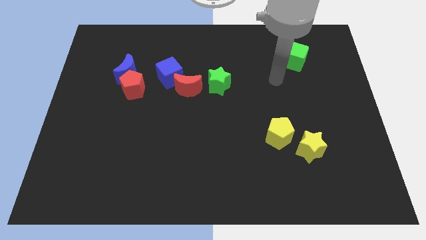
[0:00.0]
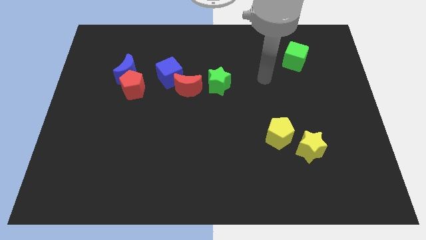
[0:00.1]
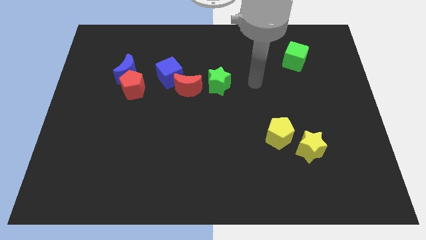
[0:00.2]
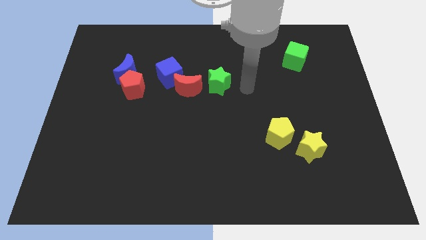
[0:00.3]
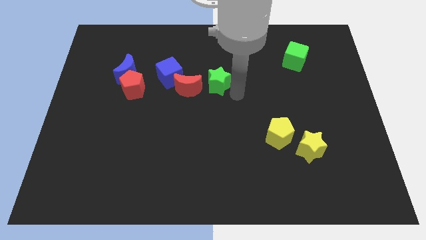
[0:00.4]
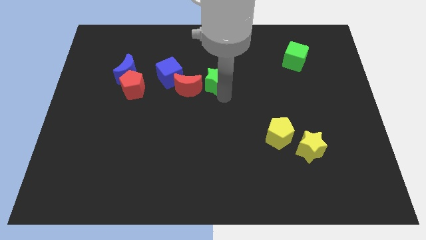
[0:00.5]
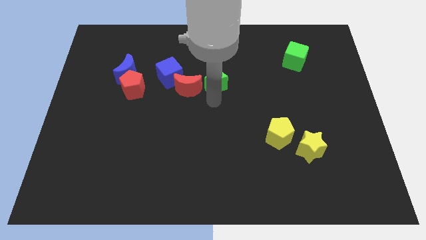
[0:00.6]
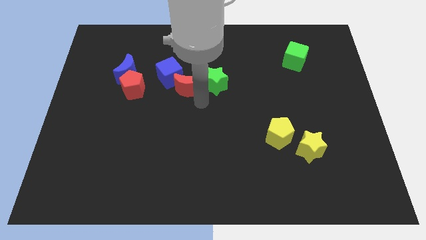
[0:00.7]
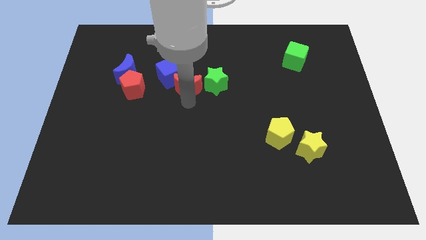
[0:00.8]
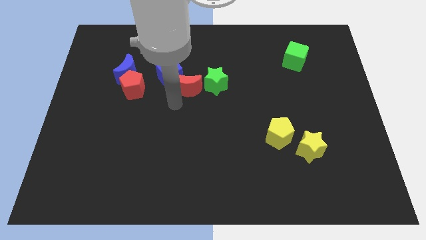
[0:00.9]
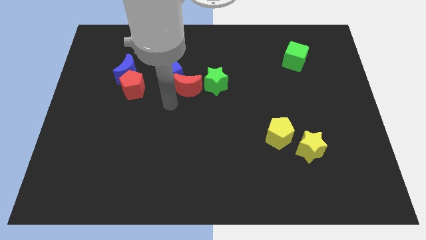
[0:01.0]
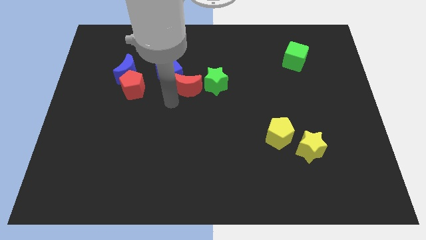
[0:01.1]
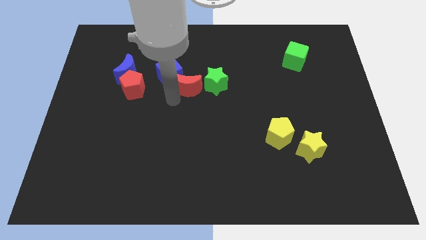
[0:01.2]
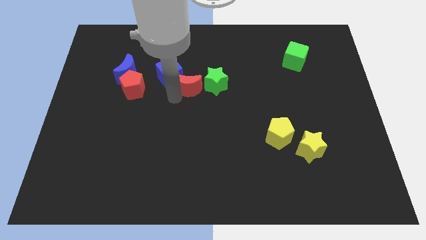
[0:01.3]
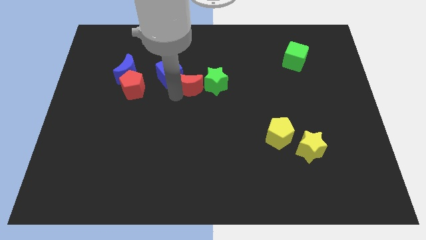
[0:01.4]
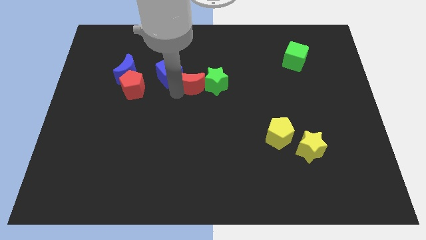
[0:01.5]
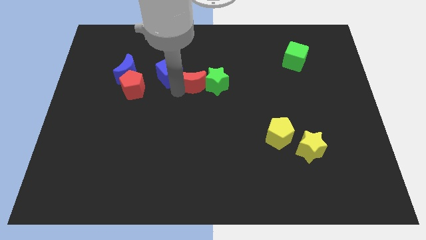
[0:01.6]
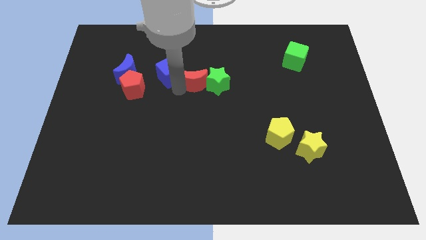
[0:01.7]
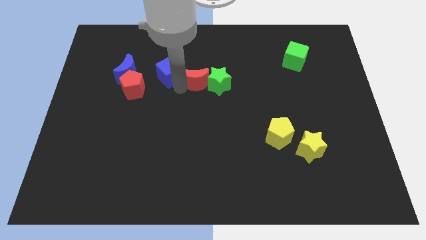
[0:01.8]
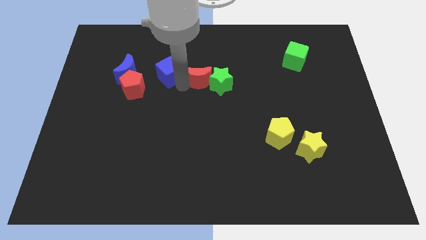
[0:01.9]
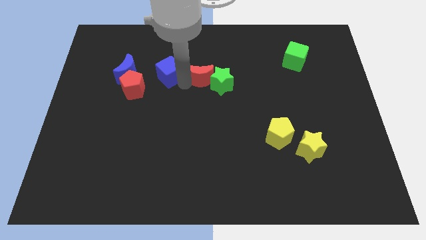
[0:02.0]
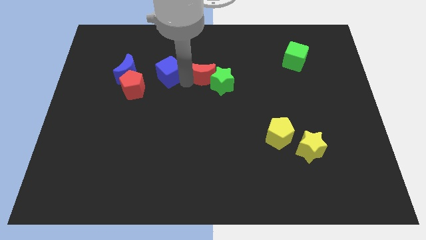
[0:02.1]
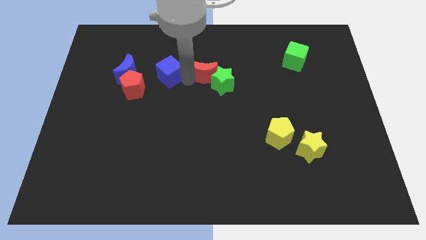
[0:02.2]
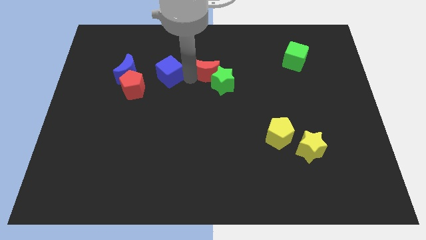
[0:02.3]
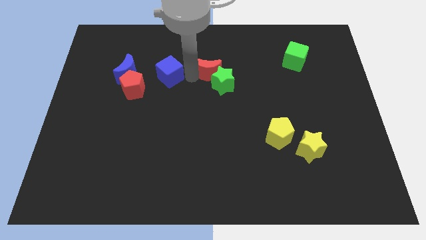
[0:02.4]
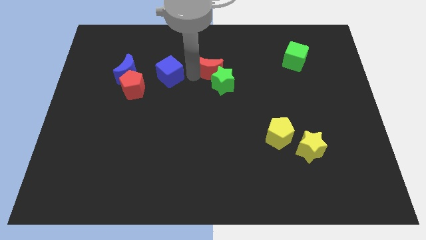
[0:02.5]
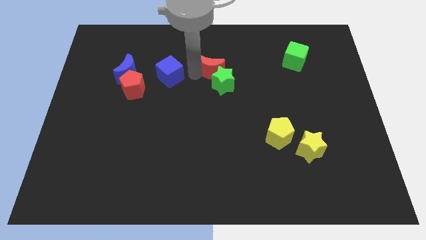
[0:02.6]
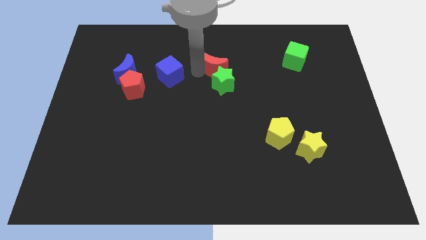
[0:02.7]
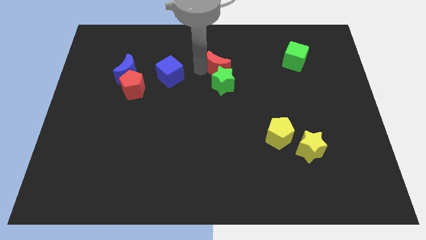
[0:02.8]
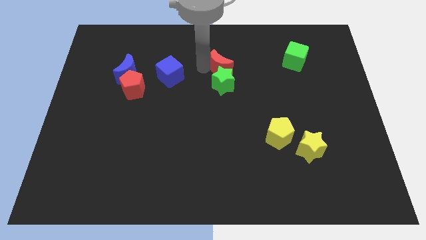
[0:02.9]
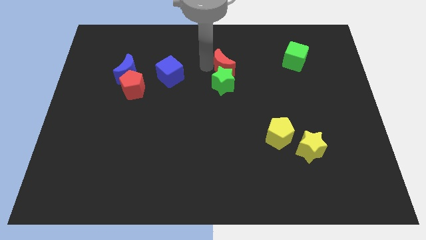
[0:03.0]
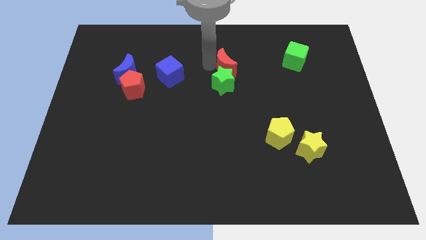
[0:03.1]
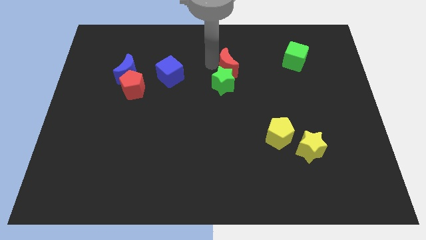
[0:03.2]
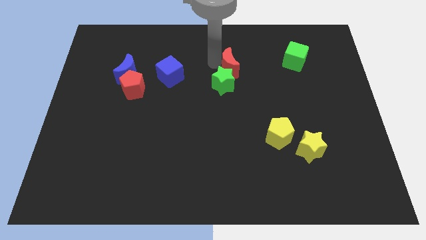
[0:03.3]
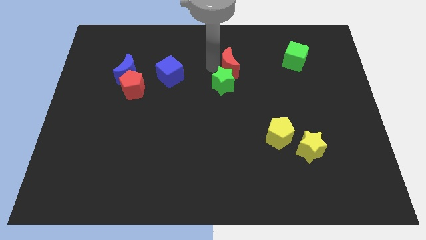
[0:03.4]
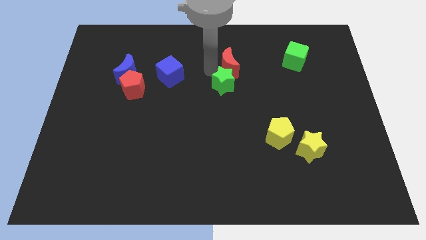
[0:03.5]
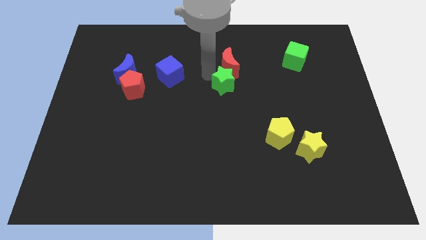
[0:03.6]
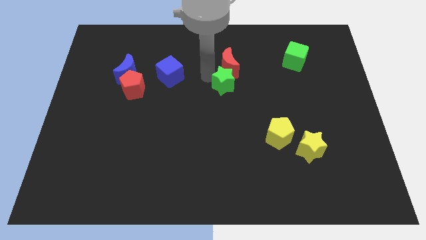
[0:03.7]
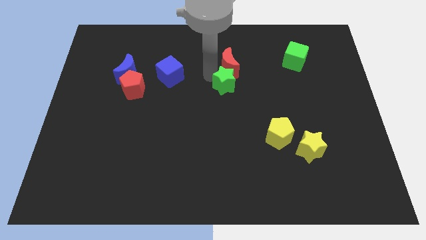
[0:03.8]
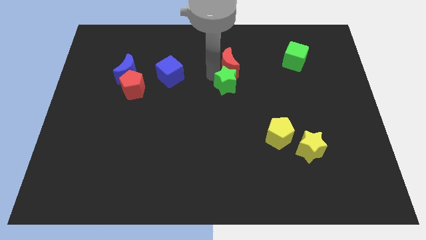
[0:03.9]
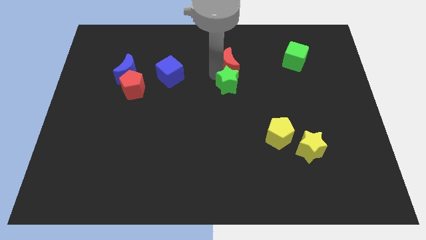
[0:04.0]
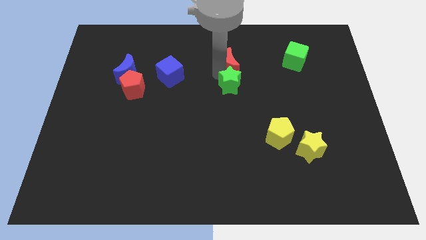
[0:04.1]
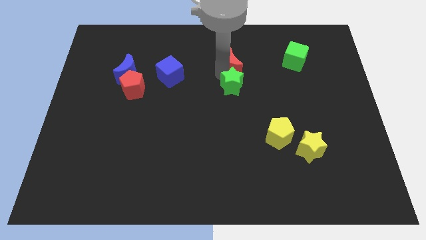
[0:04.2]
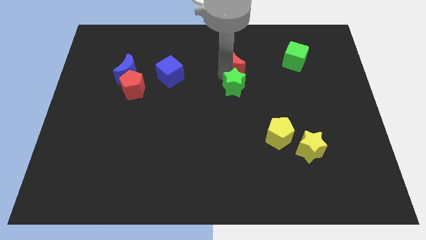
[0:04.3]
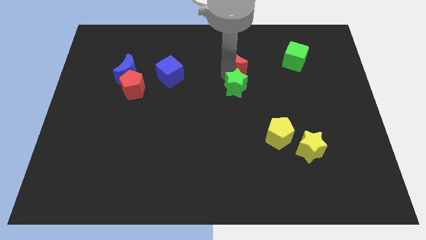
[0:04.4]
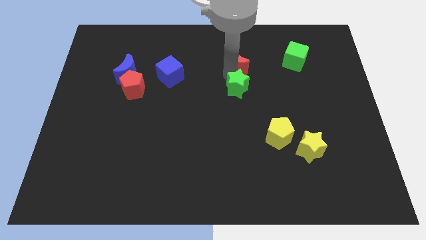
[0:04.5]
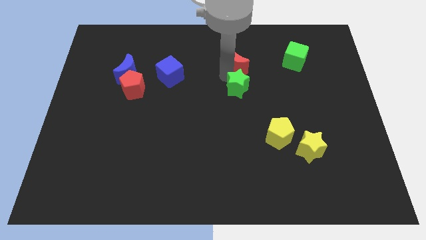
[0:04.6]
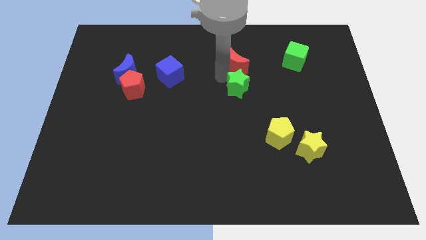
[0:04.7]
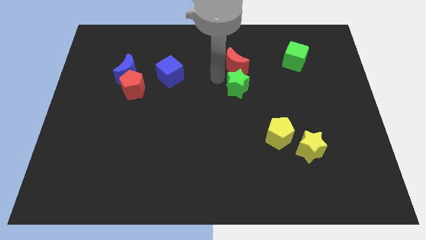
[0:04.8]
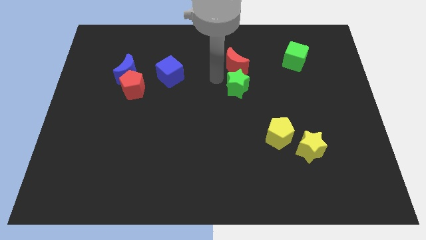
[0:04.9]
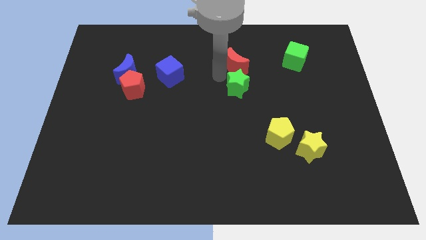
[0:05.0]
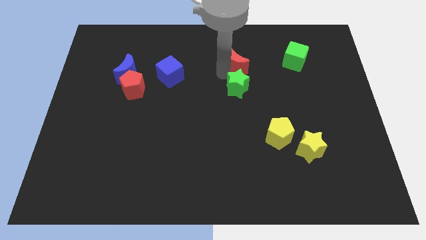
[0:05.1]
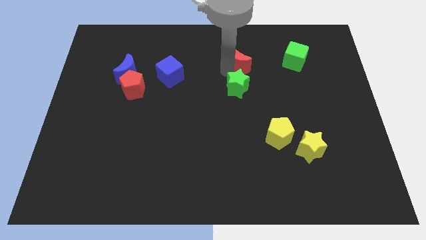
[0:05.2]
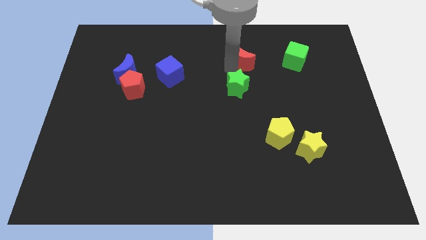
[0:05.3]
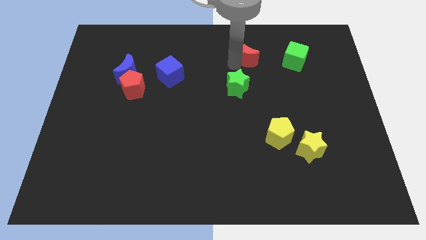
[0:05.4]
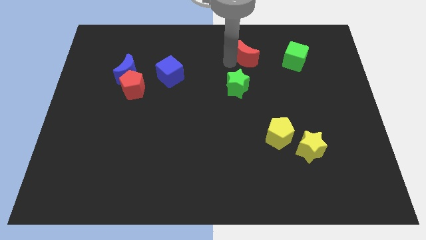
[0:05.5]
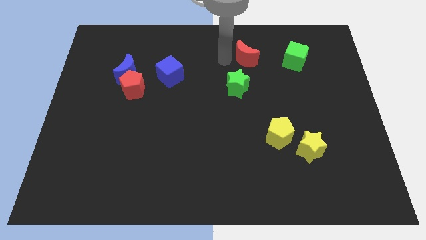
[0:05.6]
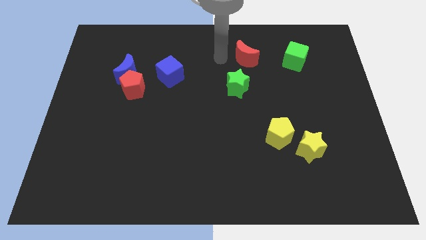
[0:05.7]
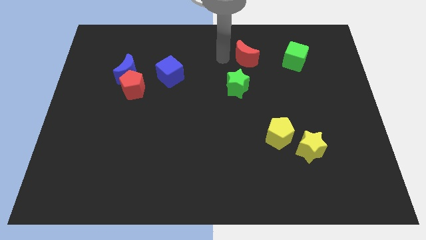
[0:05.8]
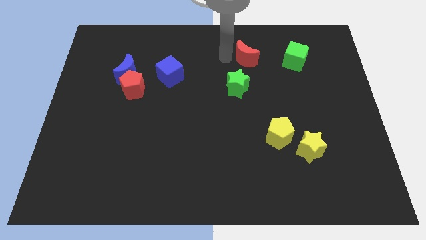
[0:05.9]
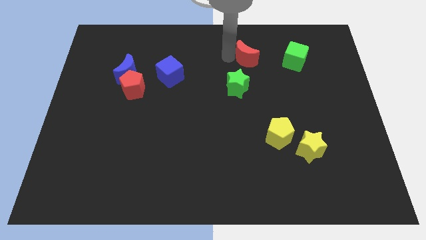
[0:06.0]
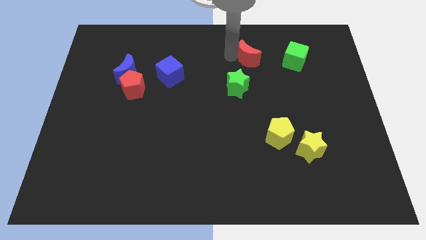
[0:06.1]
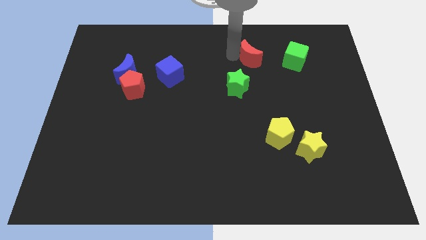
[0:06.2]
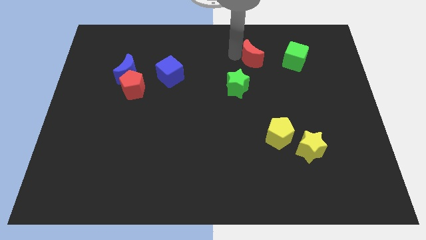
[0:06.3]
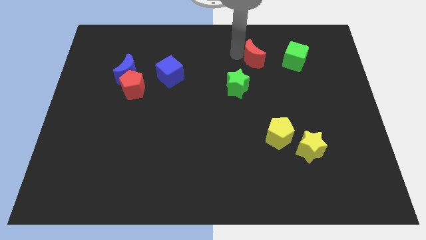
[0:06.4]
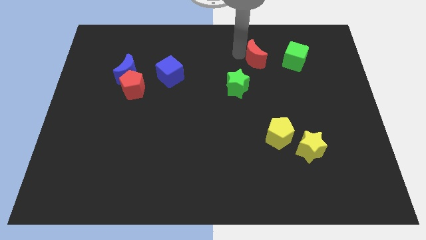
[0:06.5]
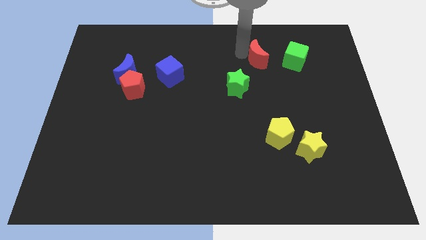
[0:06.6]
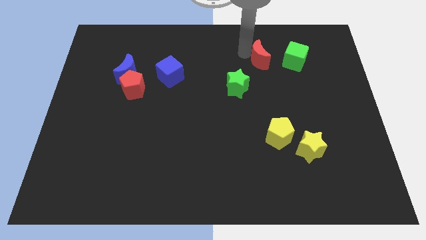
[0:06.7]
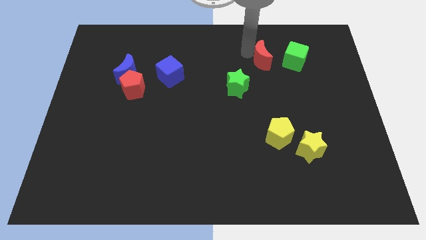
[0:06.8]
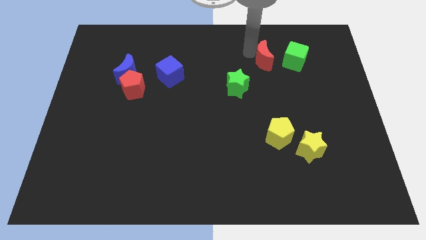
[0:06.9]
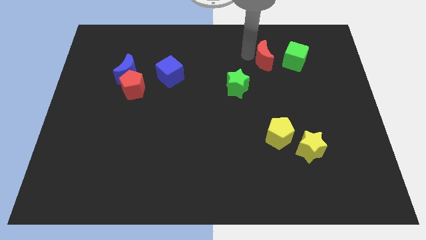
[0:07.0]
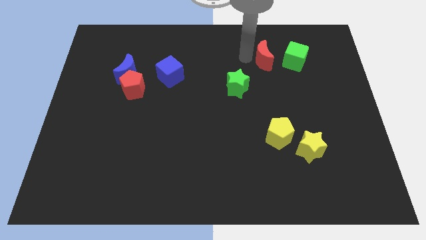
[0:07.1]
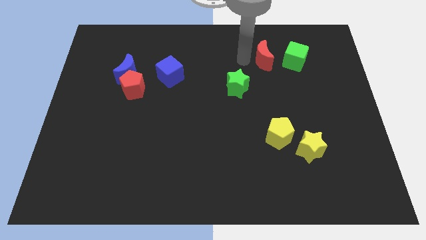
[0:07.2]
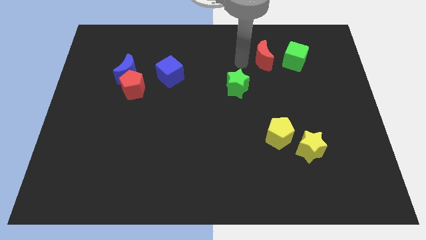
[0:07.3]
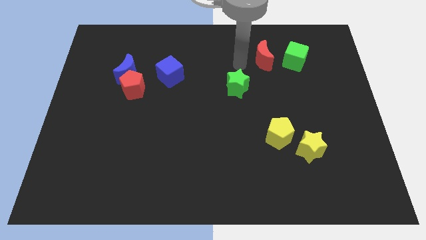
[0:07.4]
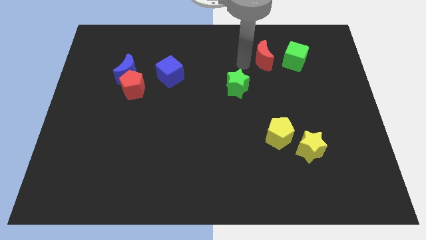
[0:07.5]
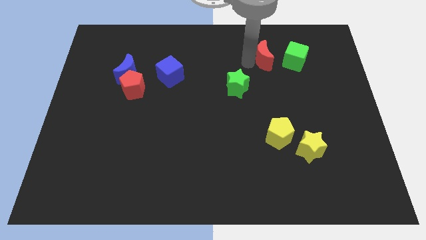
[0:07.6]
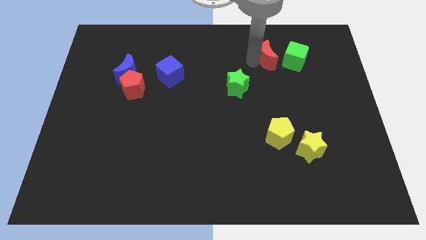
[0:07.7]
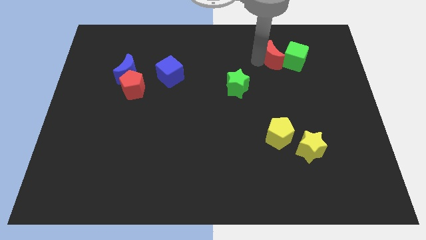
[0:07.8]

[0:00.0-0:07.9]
put the red moon towards the green cube
